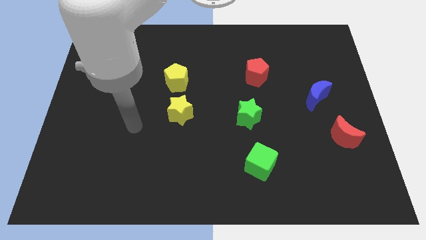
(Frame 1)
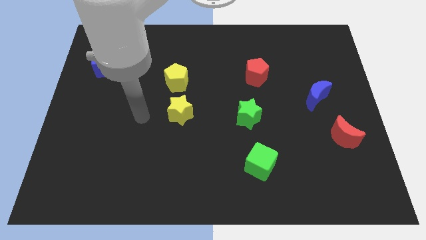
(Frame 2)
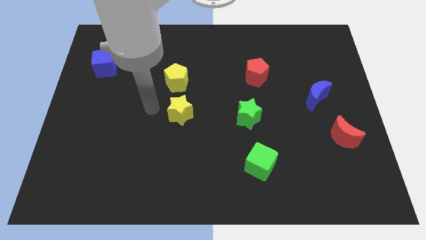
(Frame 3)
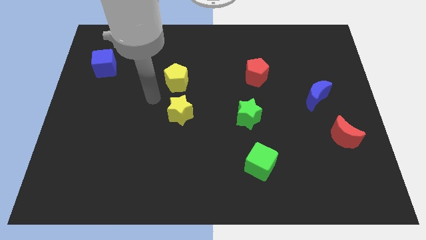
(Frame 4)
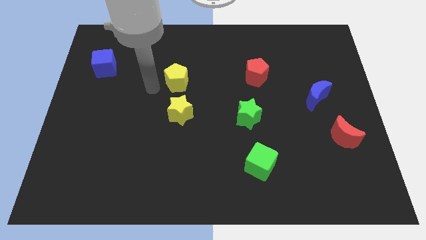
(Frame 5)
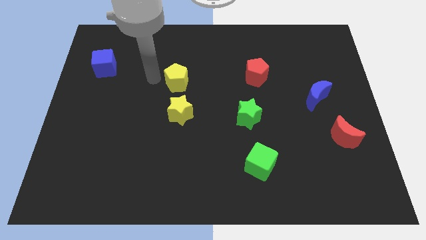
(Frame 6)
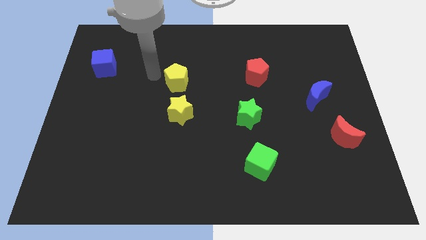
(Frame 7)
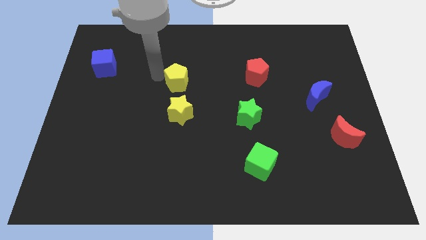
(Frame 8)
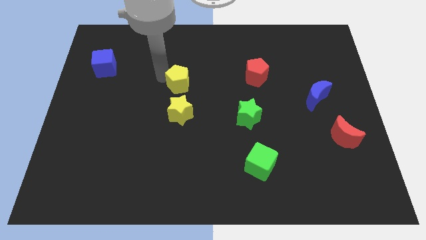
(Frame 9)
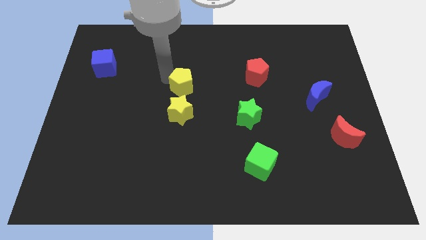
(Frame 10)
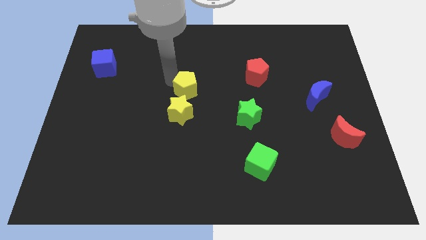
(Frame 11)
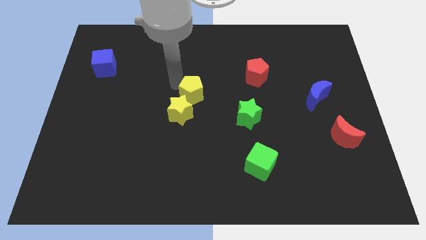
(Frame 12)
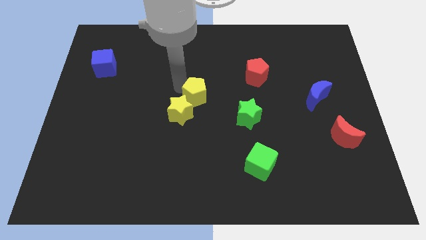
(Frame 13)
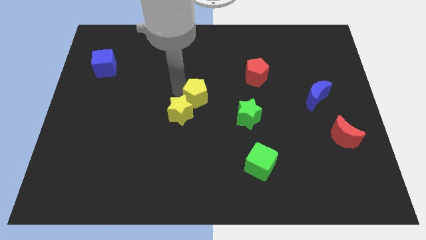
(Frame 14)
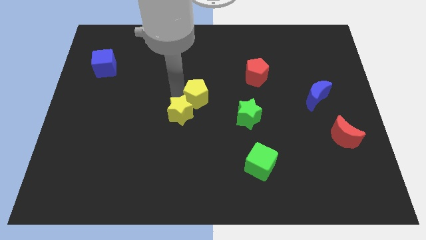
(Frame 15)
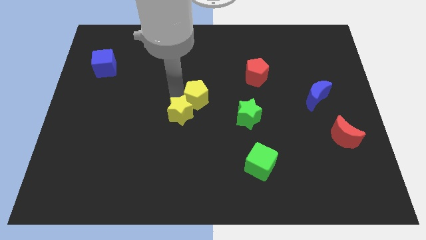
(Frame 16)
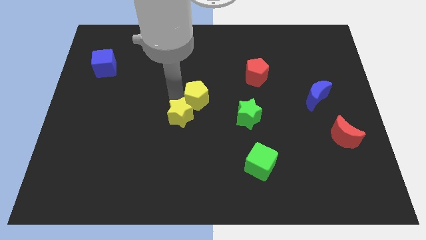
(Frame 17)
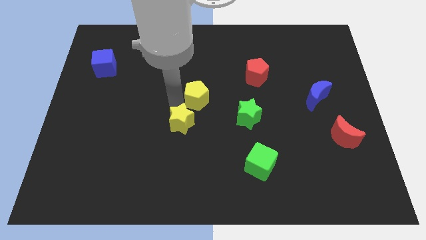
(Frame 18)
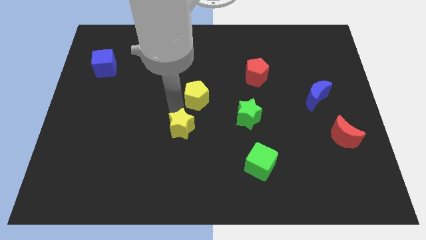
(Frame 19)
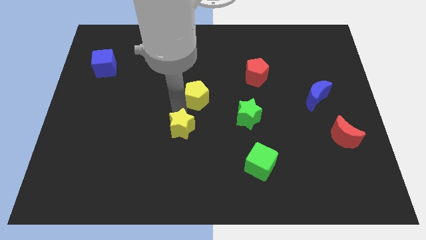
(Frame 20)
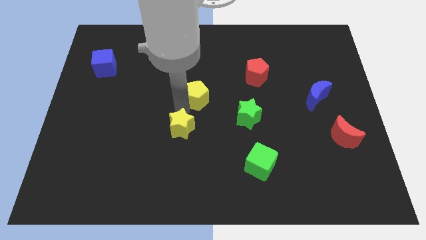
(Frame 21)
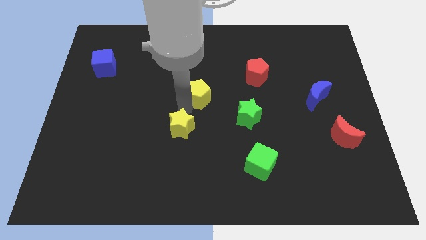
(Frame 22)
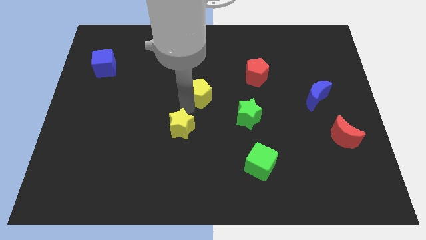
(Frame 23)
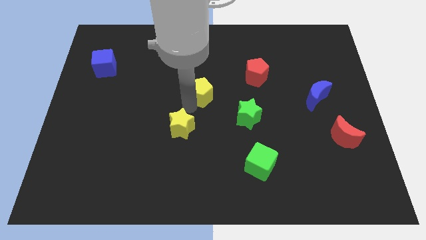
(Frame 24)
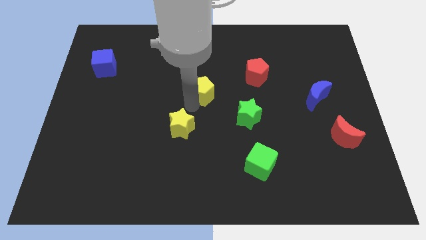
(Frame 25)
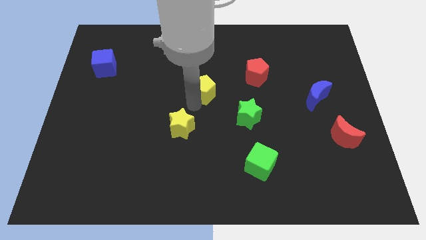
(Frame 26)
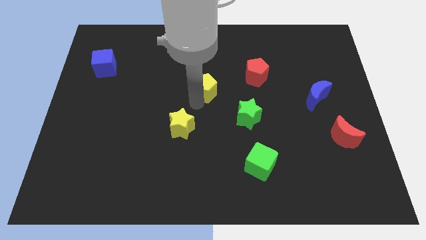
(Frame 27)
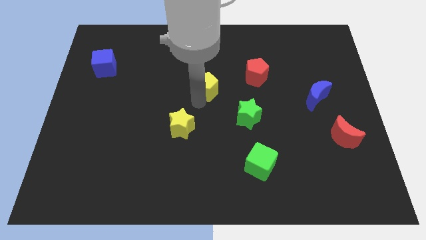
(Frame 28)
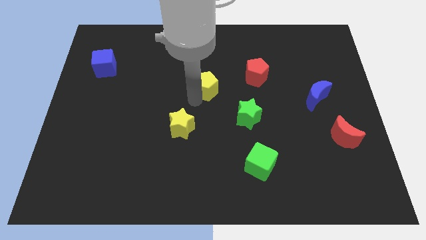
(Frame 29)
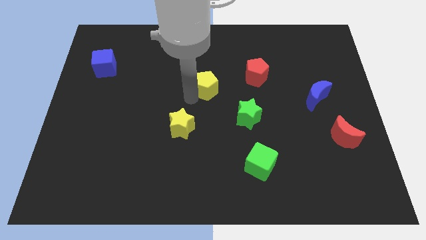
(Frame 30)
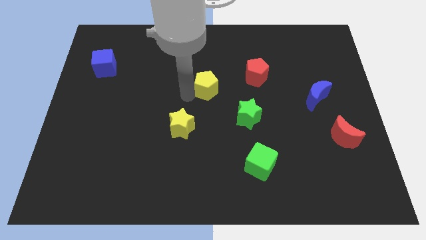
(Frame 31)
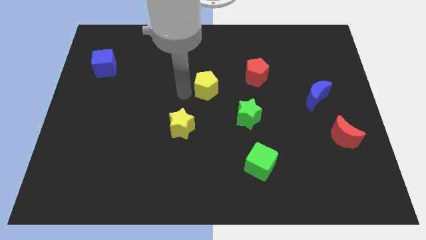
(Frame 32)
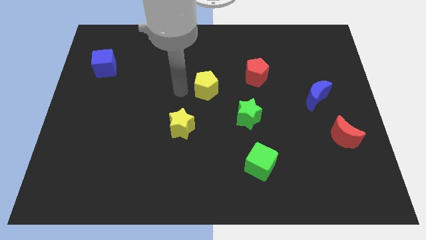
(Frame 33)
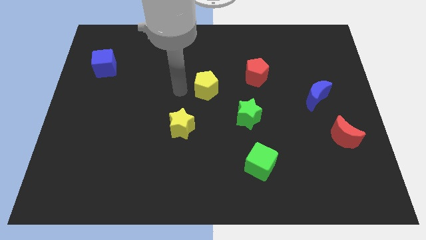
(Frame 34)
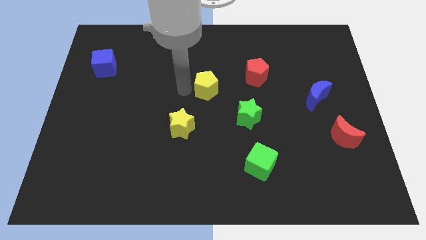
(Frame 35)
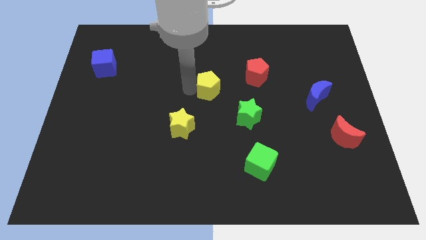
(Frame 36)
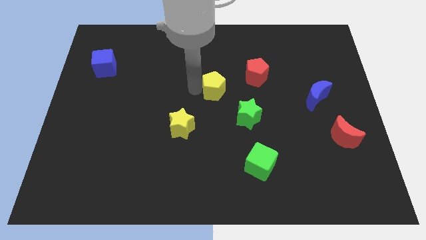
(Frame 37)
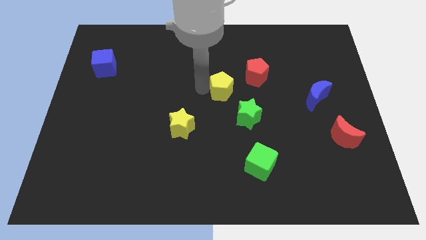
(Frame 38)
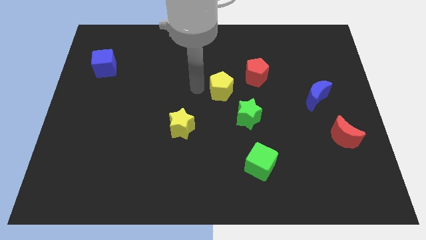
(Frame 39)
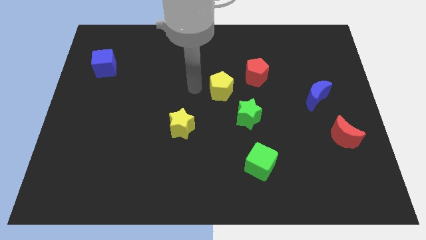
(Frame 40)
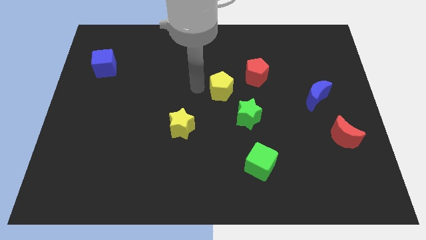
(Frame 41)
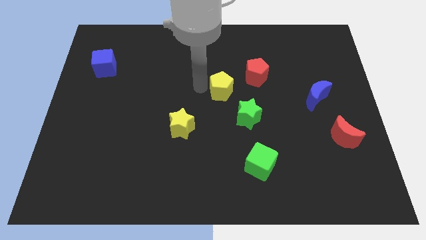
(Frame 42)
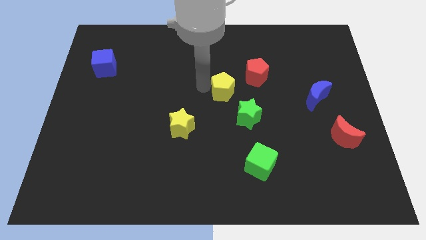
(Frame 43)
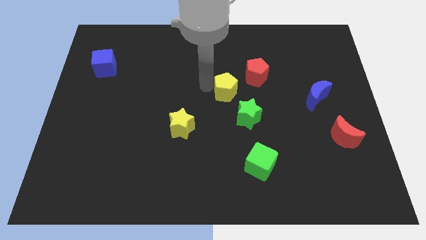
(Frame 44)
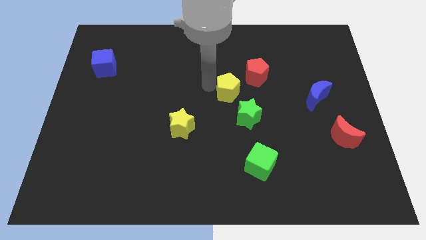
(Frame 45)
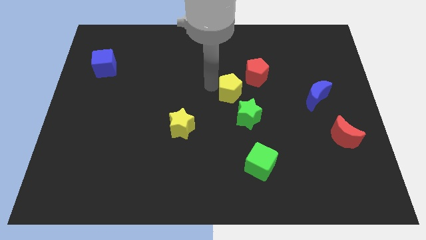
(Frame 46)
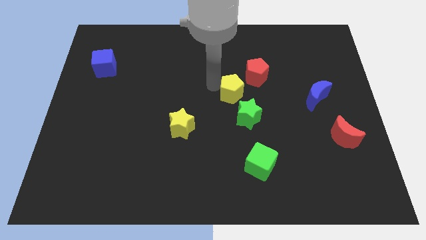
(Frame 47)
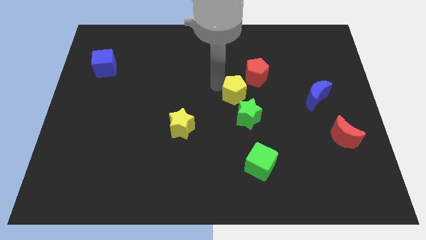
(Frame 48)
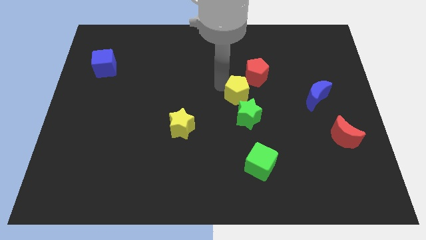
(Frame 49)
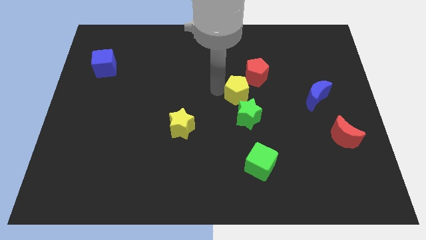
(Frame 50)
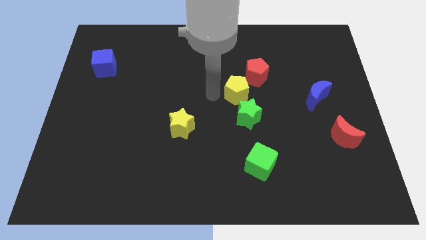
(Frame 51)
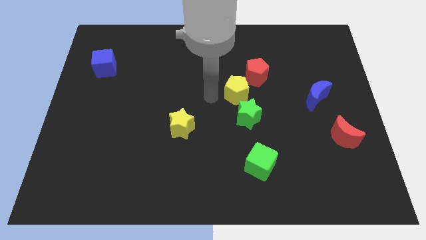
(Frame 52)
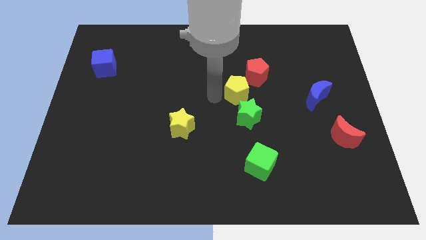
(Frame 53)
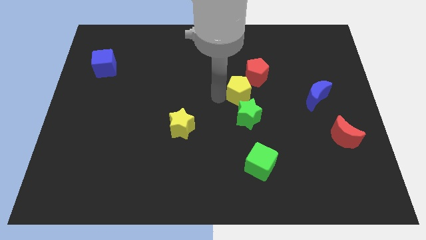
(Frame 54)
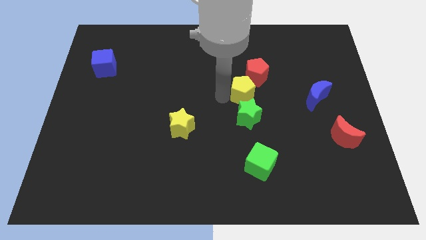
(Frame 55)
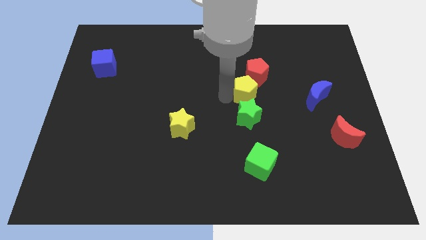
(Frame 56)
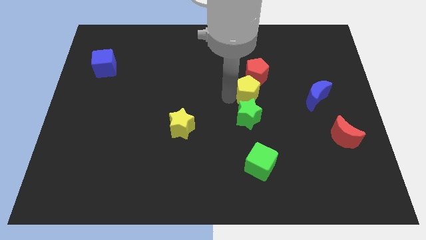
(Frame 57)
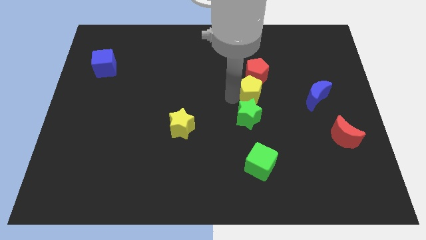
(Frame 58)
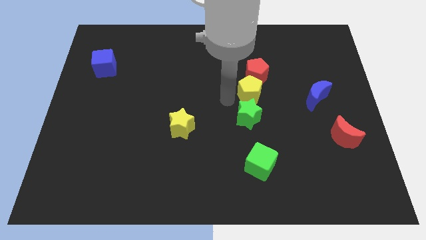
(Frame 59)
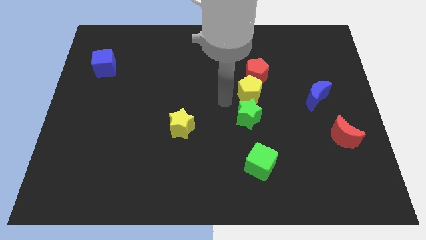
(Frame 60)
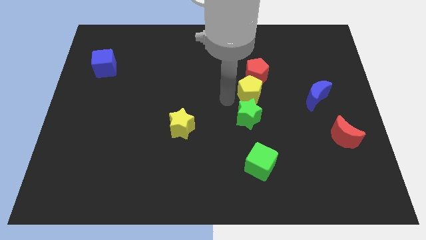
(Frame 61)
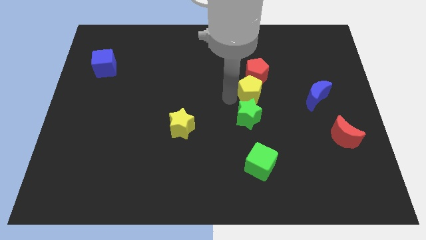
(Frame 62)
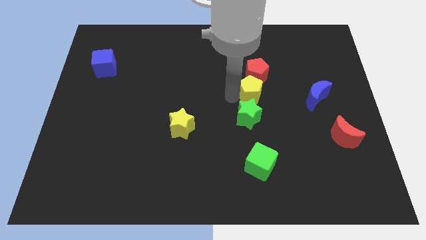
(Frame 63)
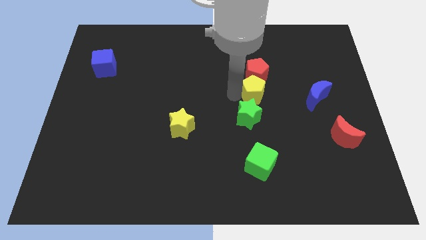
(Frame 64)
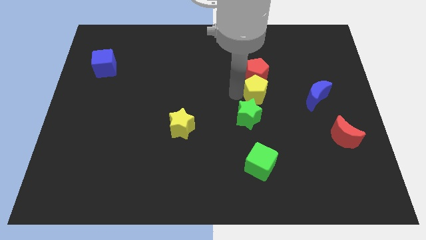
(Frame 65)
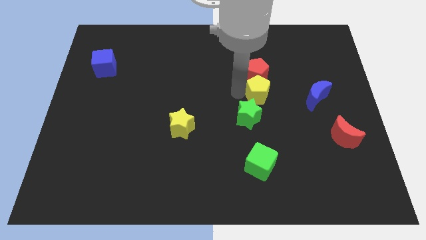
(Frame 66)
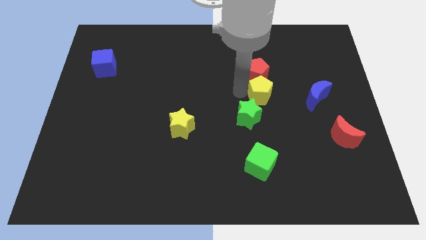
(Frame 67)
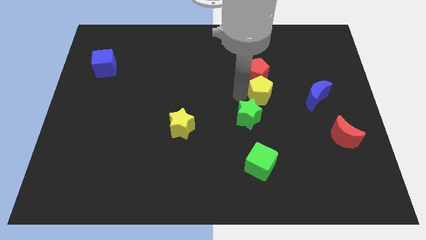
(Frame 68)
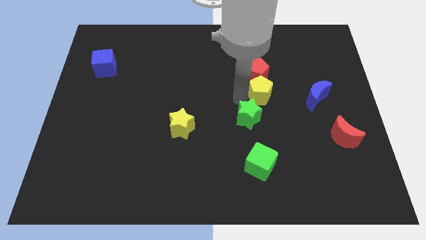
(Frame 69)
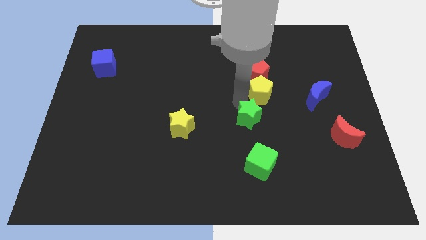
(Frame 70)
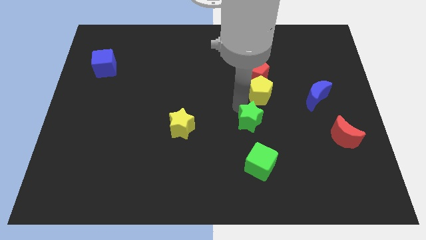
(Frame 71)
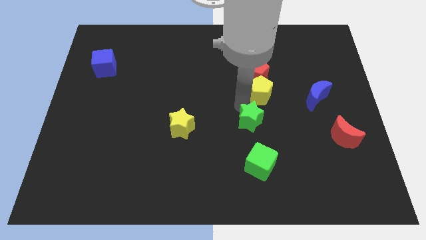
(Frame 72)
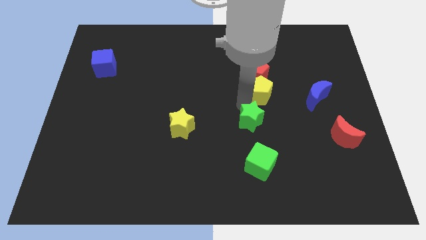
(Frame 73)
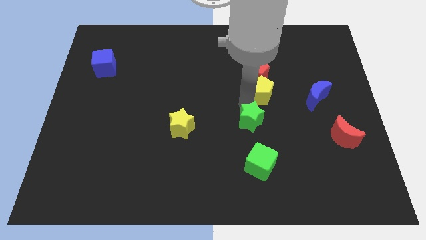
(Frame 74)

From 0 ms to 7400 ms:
slide the yellow pentagon right
